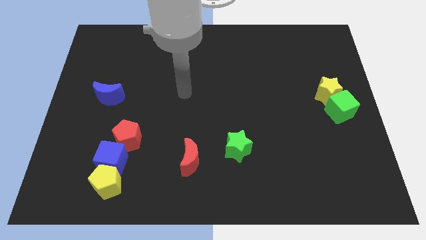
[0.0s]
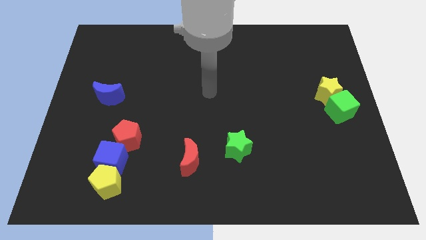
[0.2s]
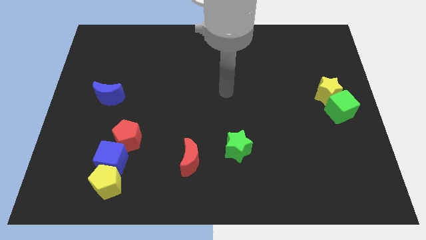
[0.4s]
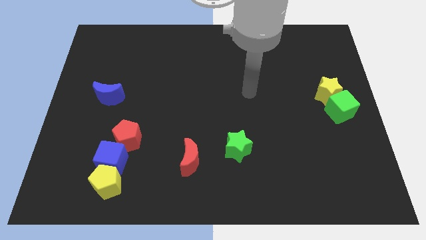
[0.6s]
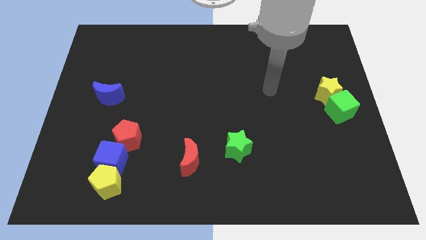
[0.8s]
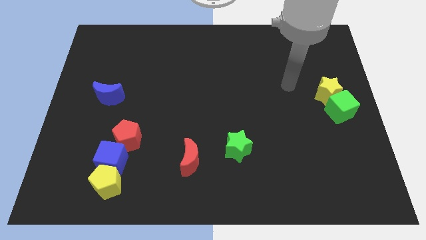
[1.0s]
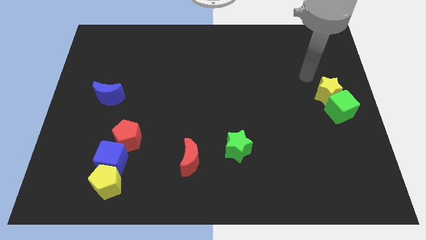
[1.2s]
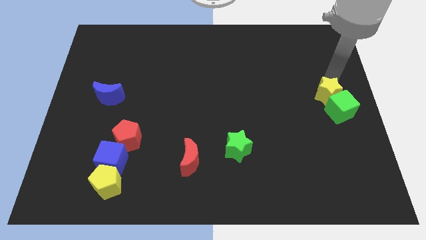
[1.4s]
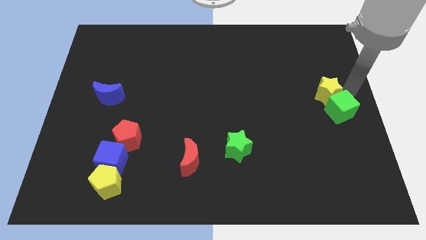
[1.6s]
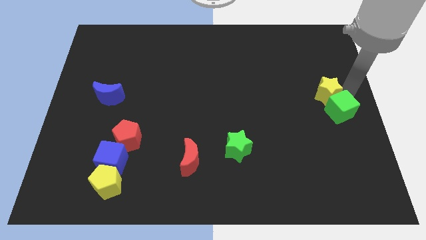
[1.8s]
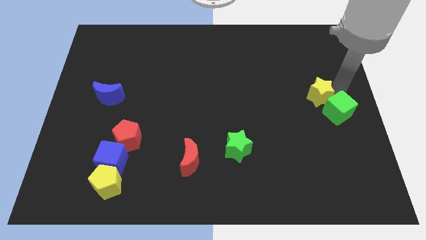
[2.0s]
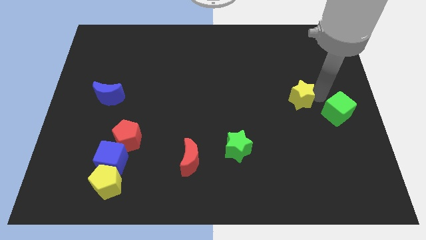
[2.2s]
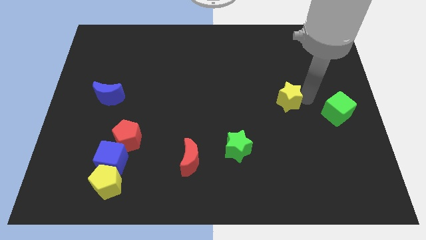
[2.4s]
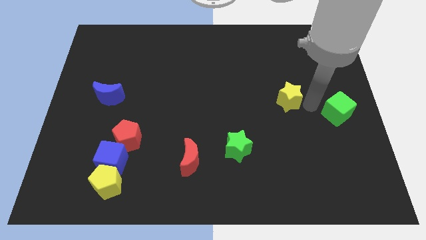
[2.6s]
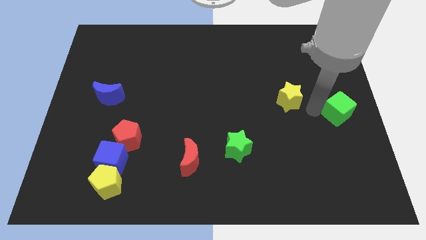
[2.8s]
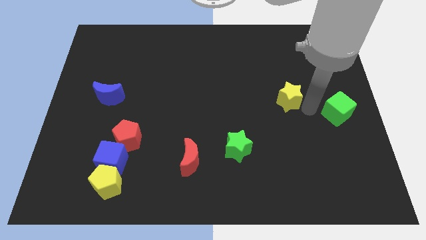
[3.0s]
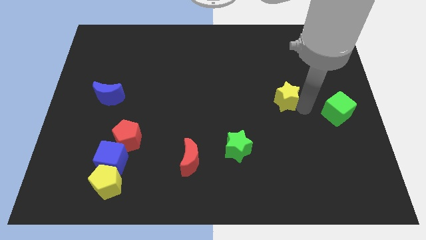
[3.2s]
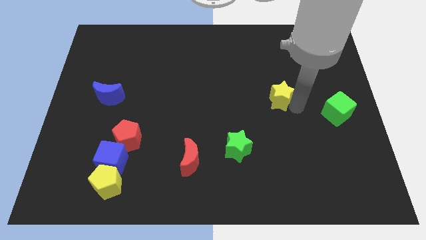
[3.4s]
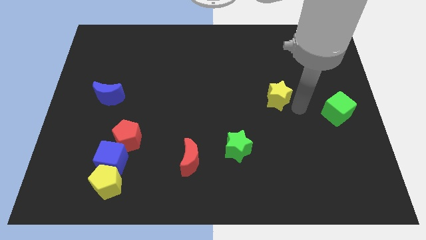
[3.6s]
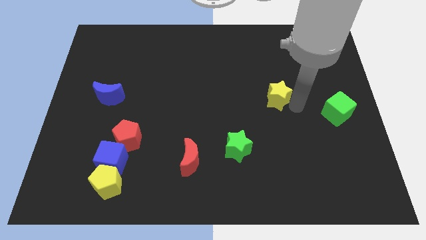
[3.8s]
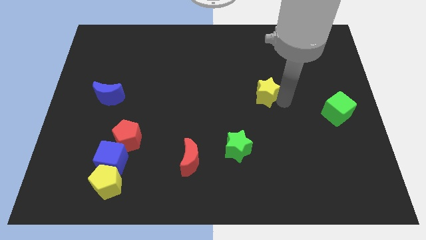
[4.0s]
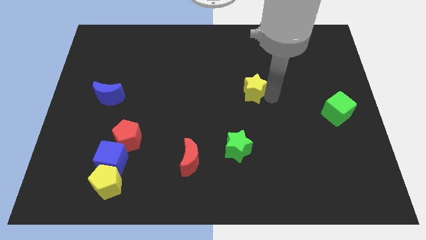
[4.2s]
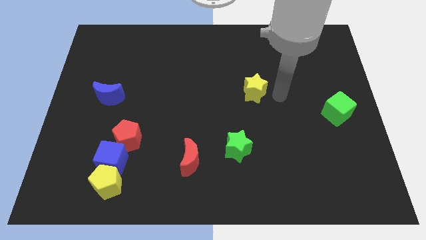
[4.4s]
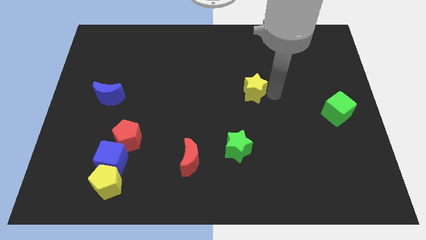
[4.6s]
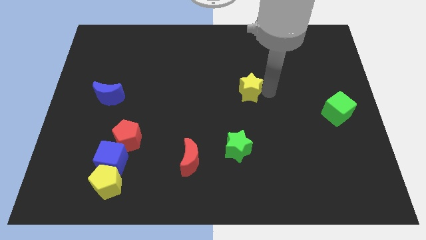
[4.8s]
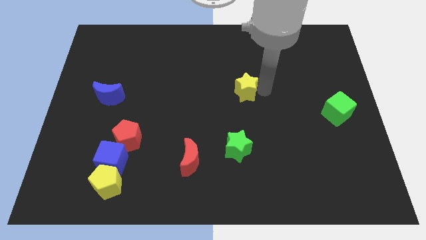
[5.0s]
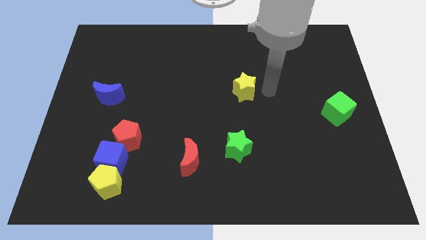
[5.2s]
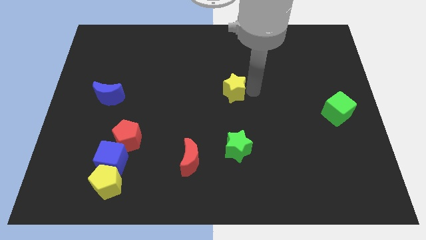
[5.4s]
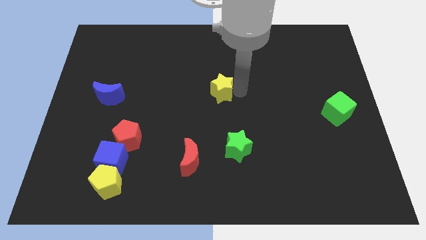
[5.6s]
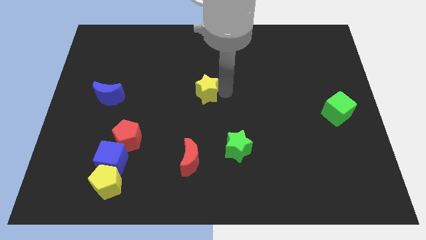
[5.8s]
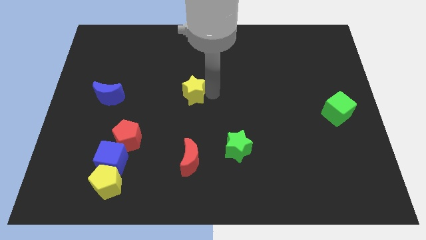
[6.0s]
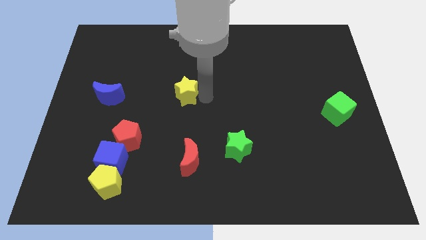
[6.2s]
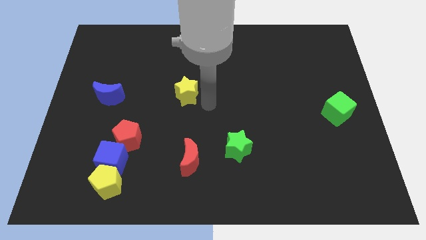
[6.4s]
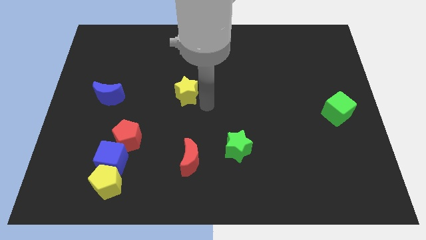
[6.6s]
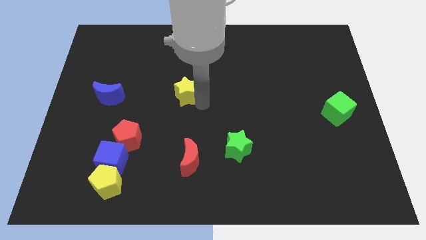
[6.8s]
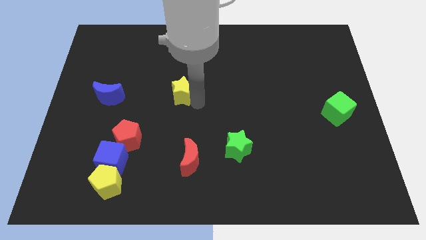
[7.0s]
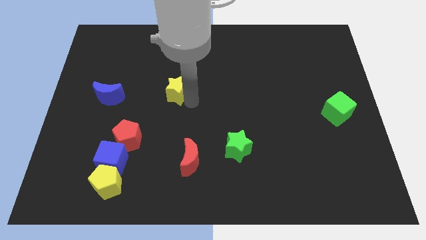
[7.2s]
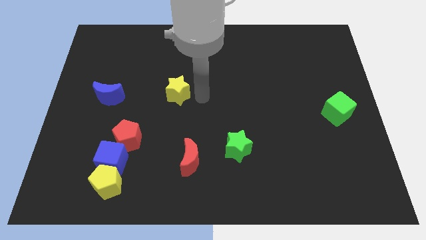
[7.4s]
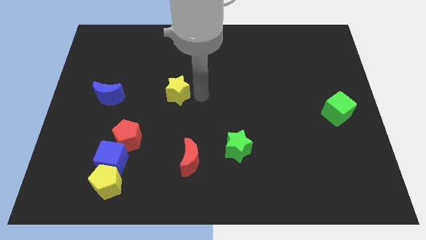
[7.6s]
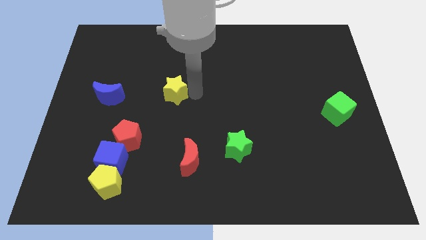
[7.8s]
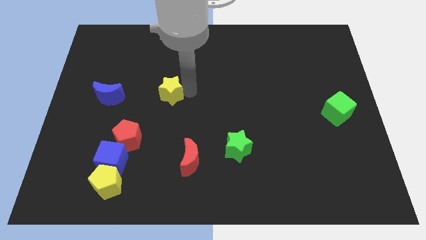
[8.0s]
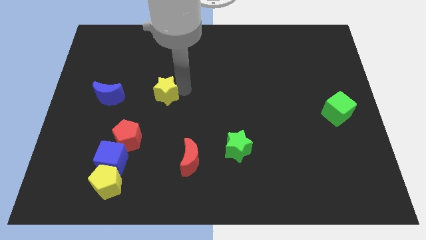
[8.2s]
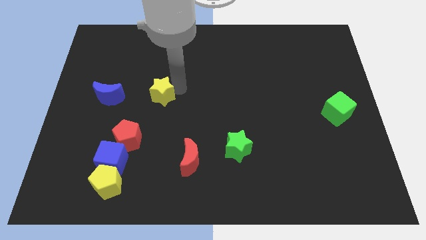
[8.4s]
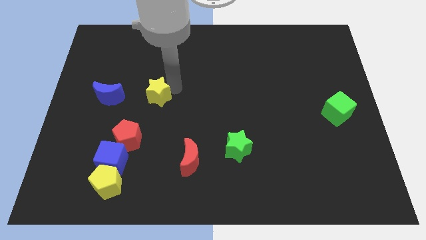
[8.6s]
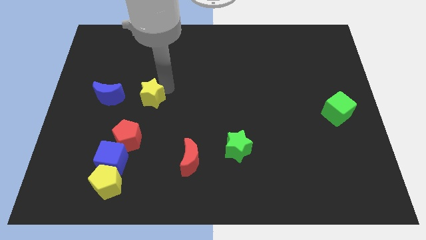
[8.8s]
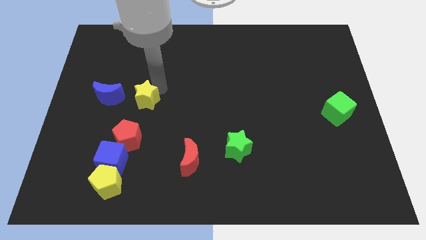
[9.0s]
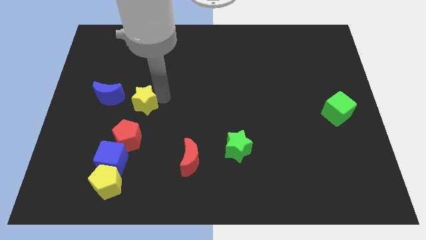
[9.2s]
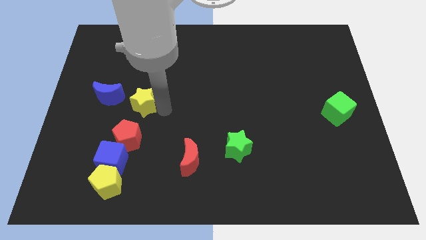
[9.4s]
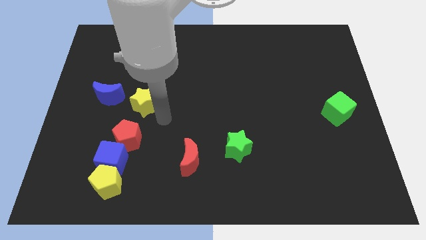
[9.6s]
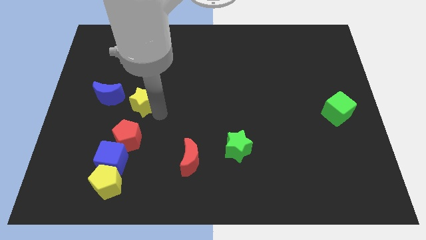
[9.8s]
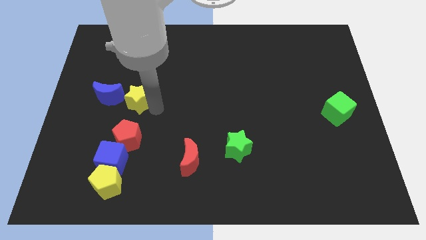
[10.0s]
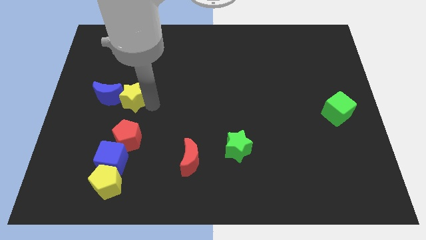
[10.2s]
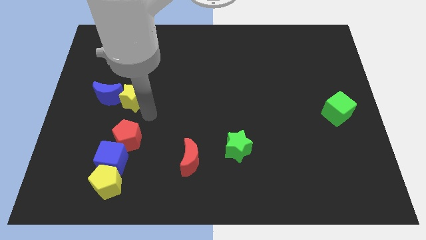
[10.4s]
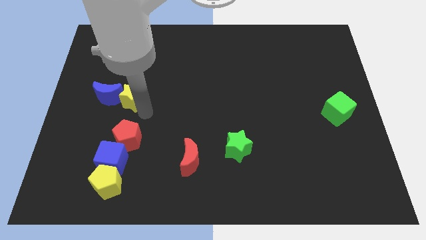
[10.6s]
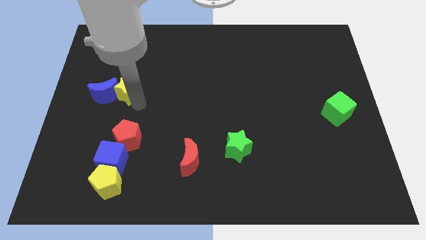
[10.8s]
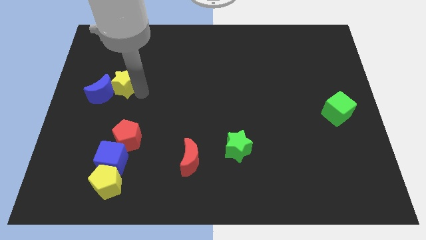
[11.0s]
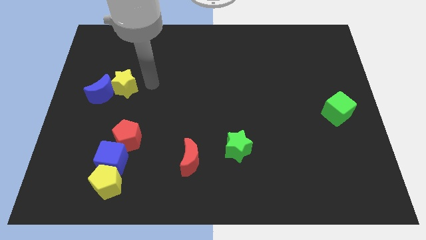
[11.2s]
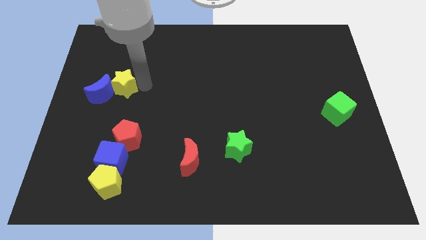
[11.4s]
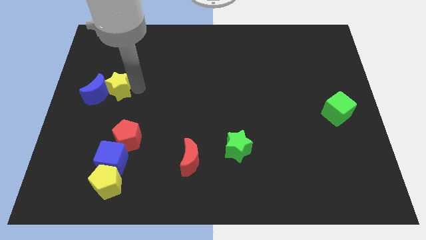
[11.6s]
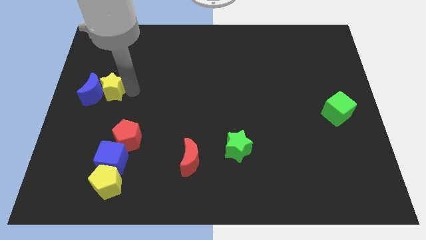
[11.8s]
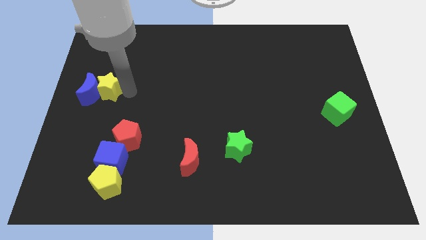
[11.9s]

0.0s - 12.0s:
slide the yellow star to the left side

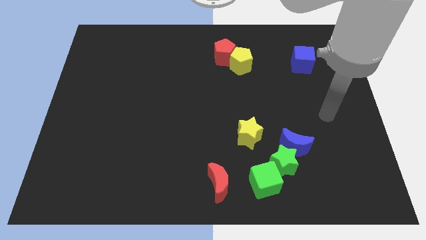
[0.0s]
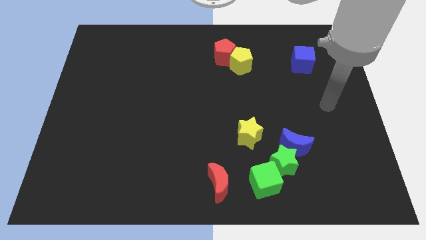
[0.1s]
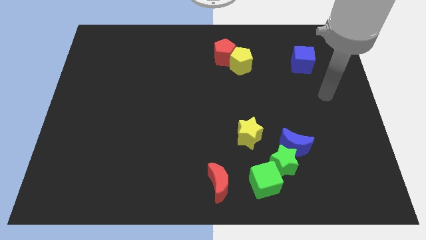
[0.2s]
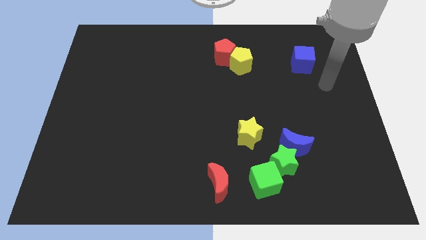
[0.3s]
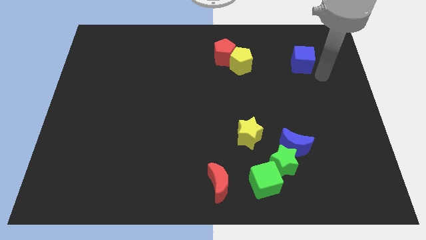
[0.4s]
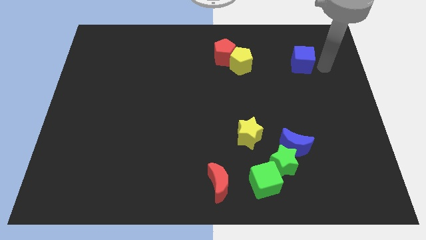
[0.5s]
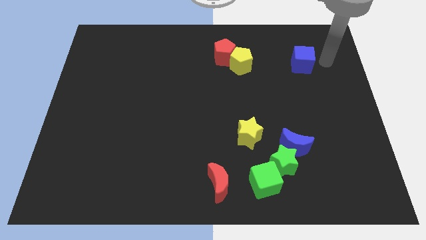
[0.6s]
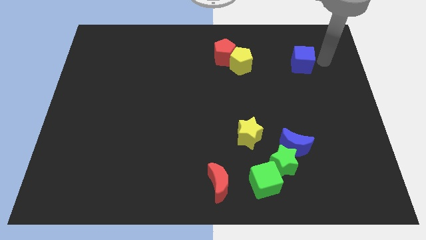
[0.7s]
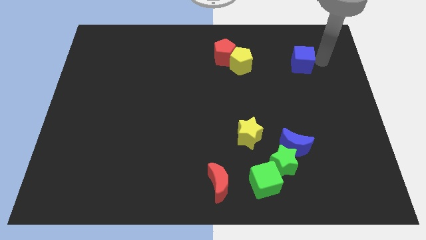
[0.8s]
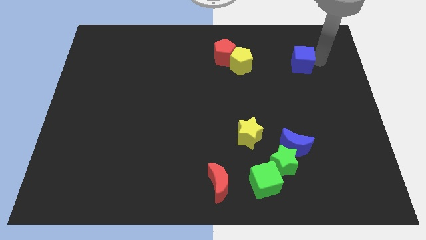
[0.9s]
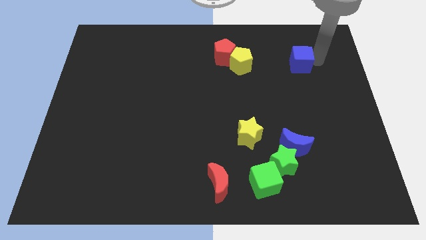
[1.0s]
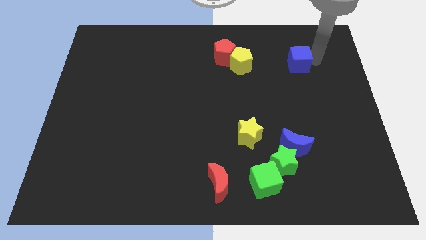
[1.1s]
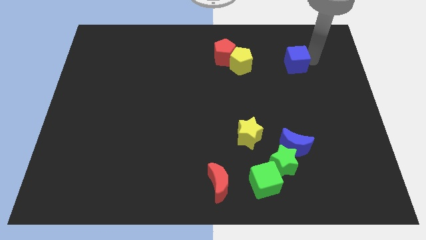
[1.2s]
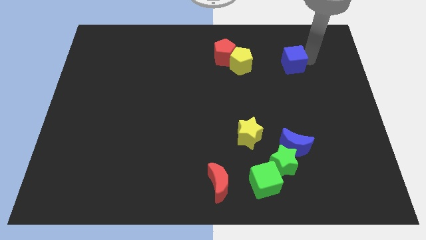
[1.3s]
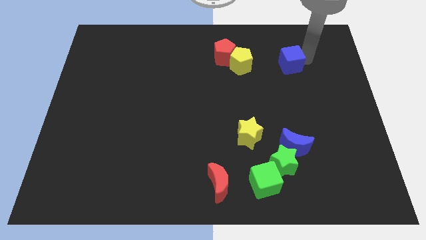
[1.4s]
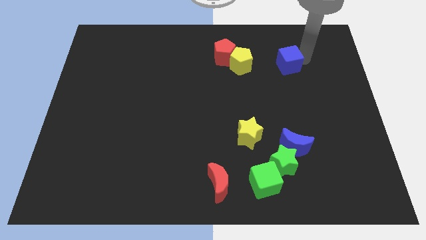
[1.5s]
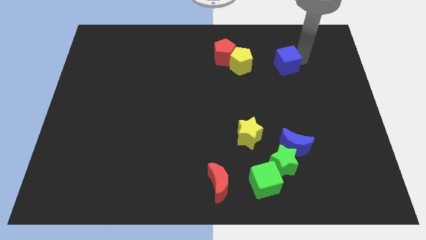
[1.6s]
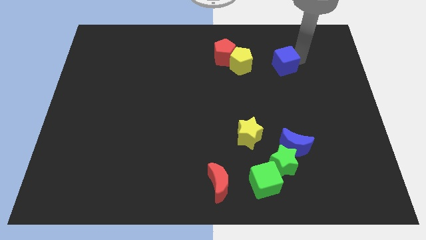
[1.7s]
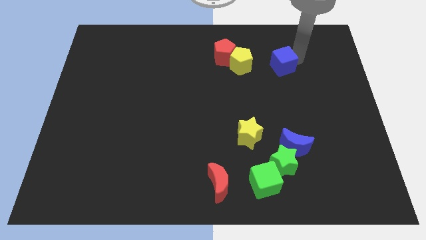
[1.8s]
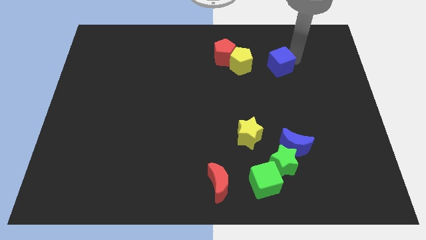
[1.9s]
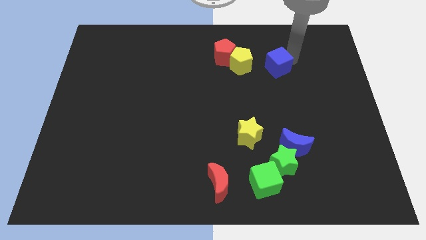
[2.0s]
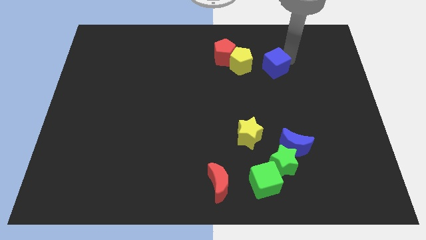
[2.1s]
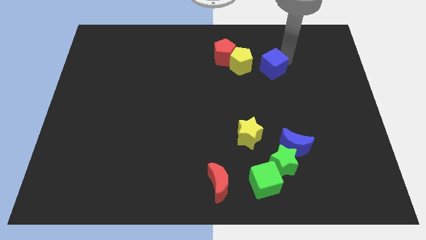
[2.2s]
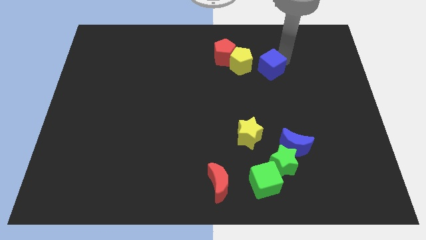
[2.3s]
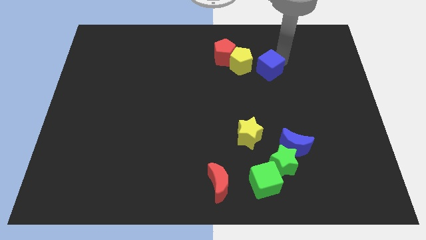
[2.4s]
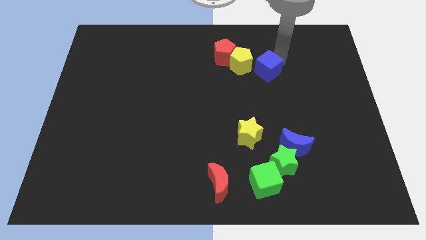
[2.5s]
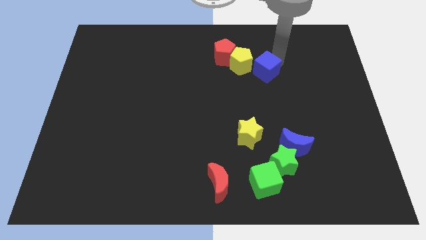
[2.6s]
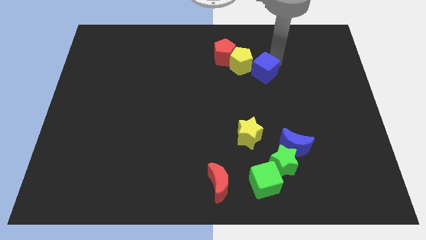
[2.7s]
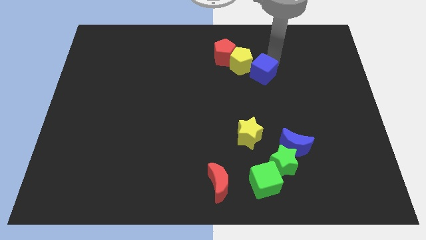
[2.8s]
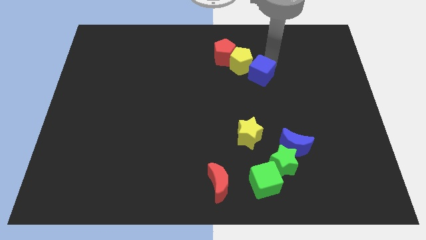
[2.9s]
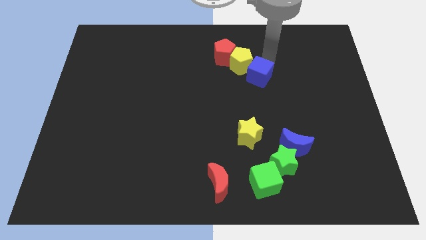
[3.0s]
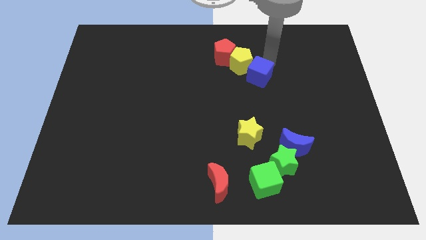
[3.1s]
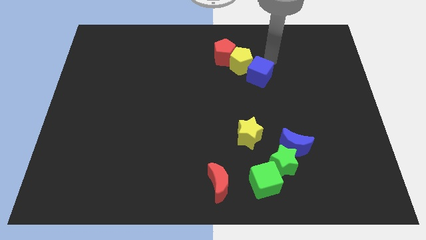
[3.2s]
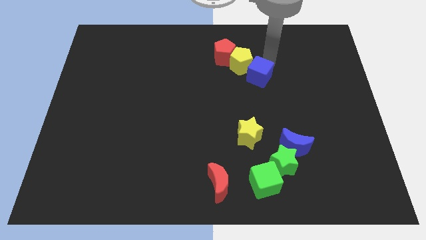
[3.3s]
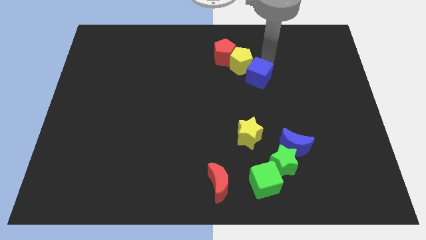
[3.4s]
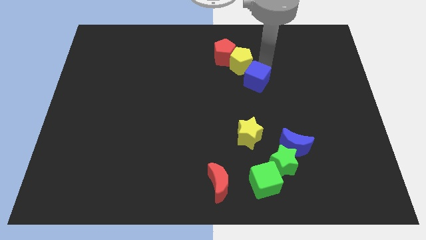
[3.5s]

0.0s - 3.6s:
push the blue cube to the center
